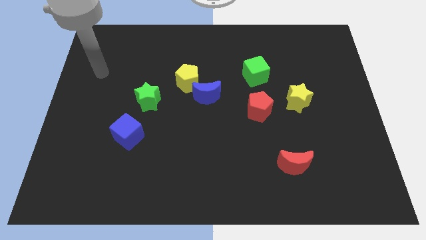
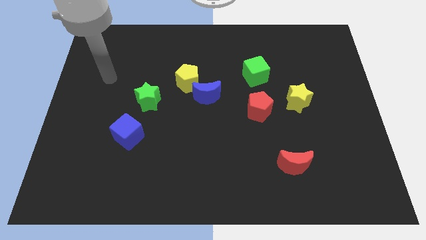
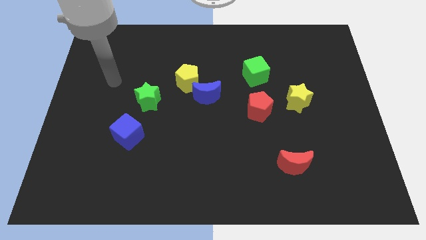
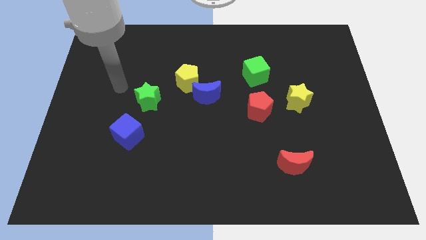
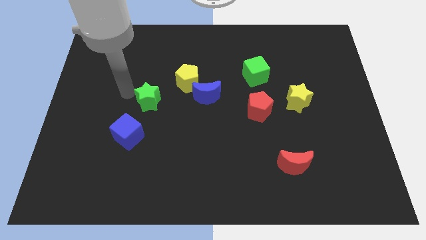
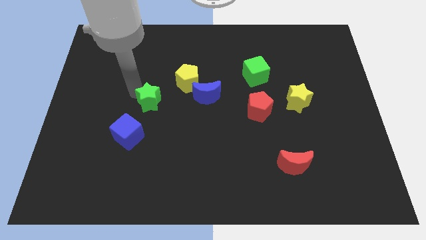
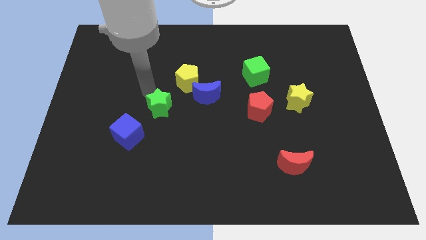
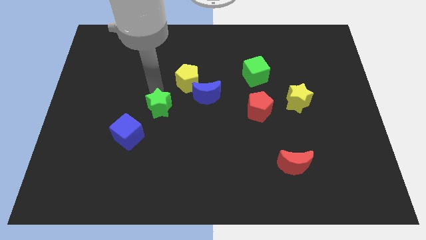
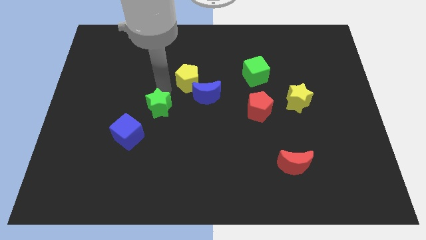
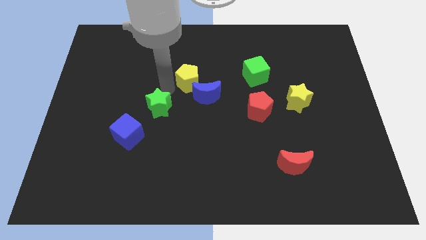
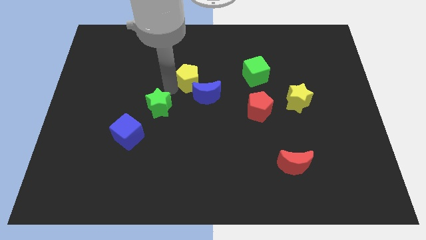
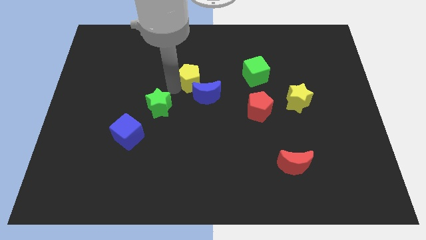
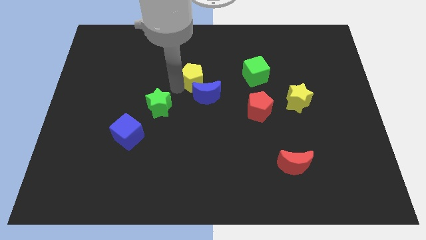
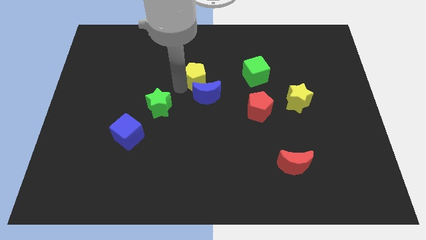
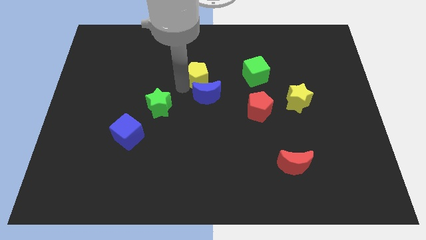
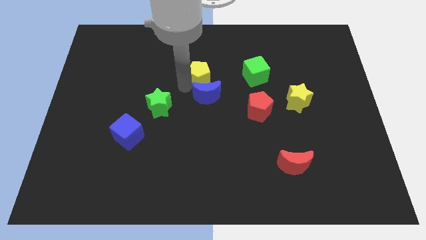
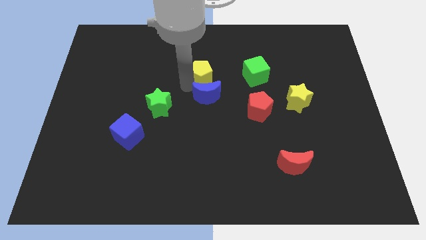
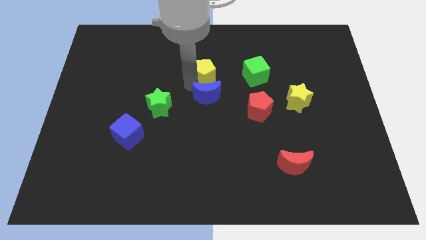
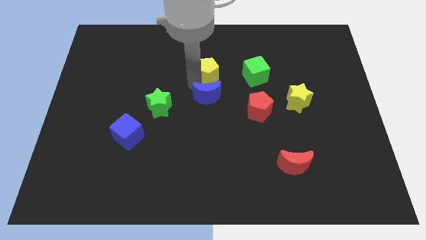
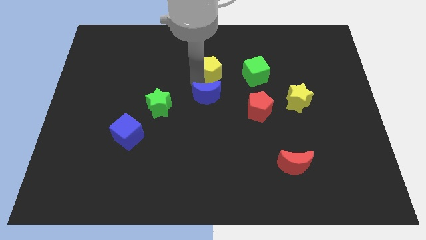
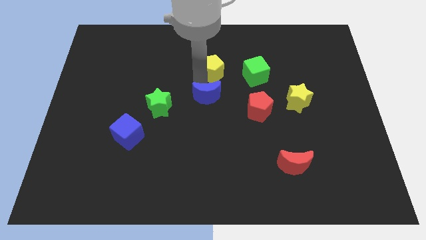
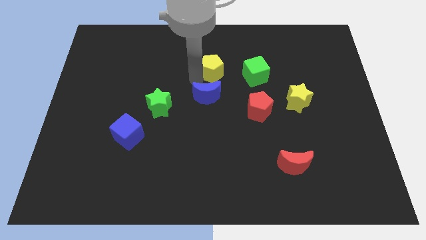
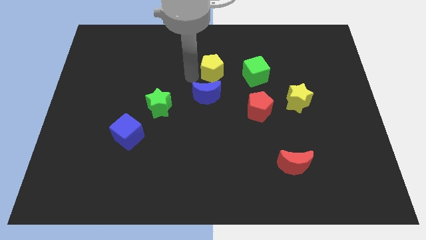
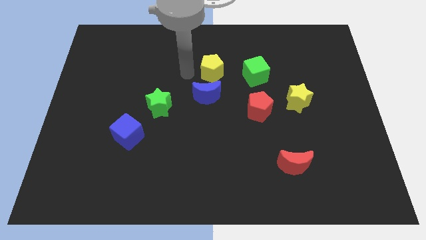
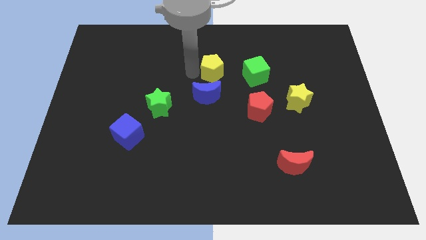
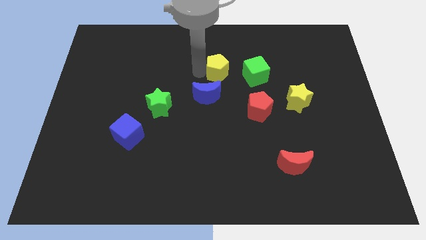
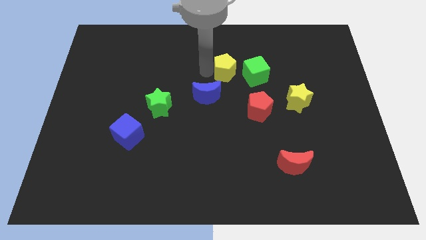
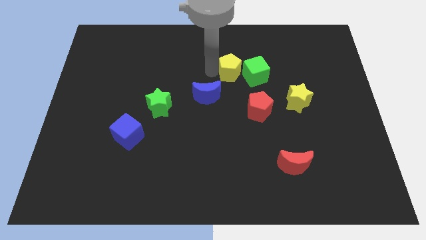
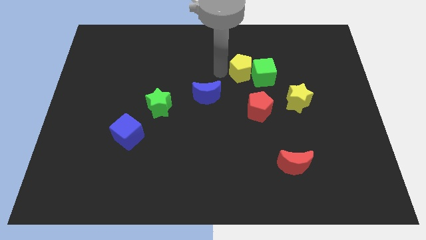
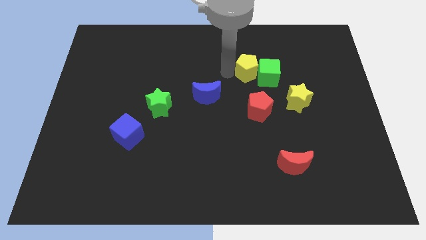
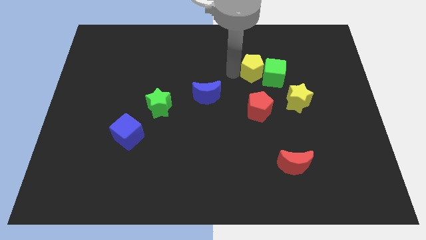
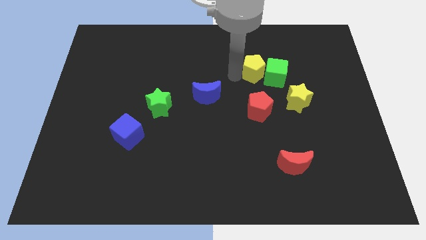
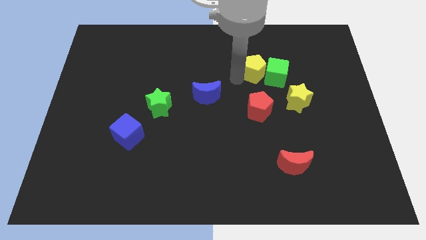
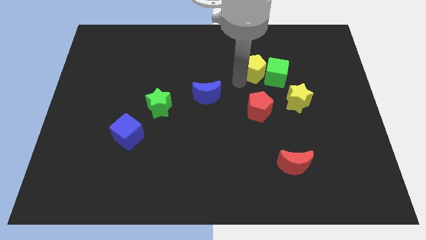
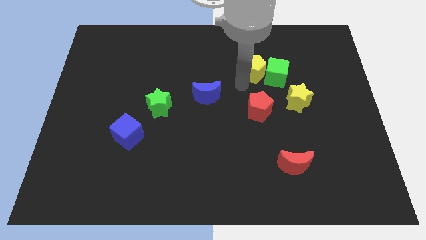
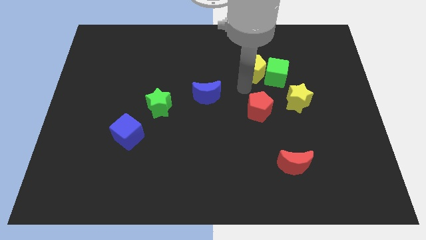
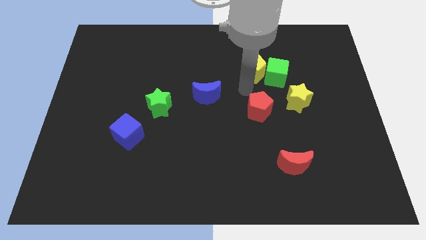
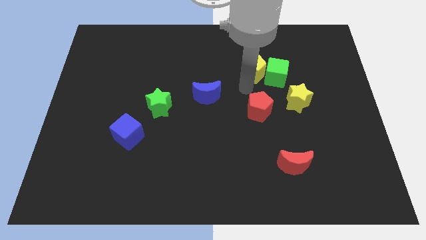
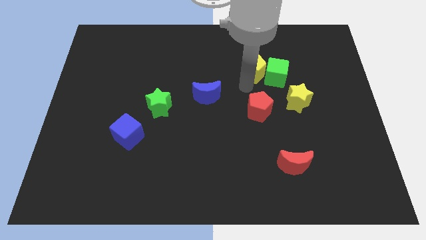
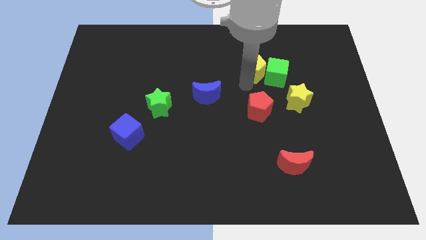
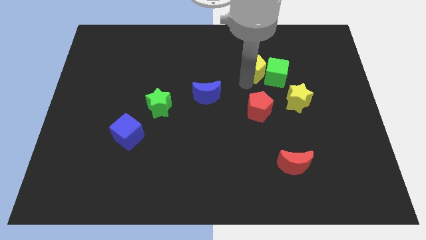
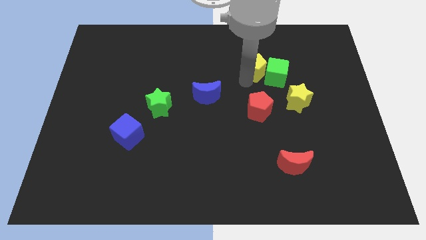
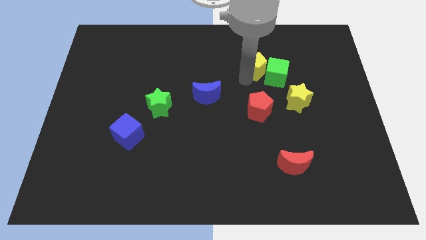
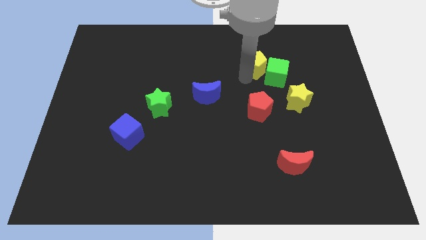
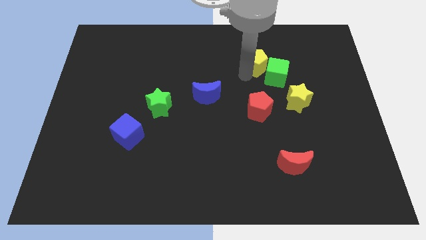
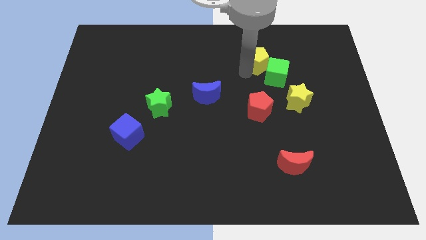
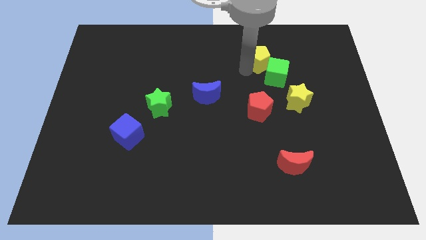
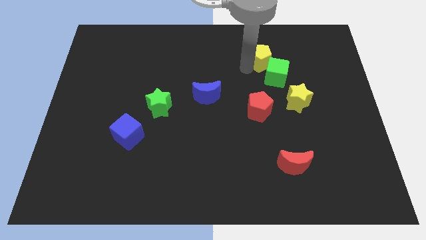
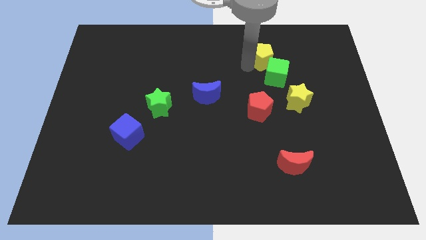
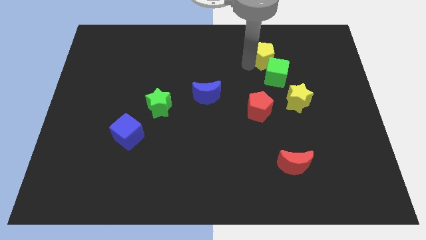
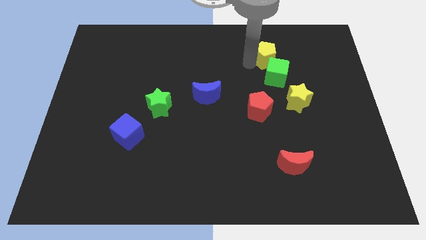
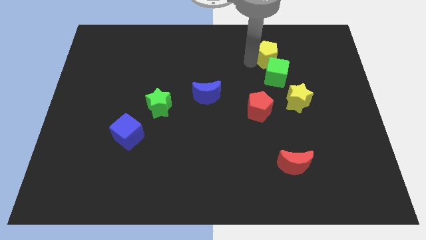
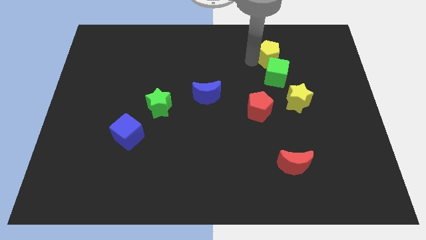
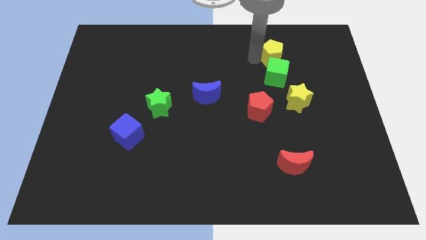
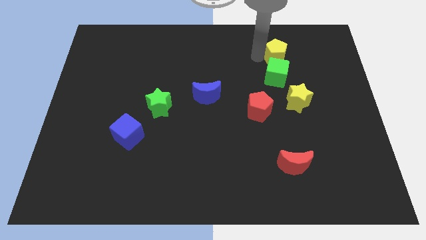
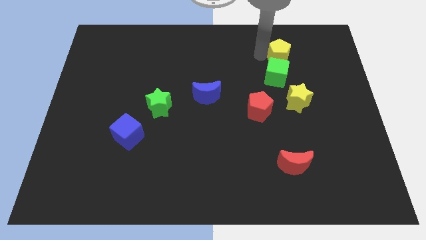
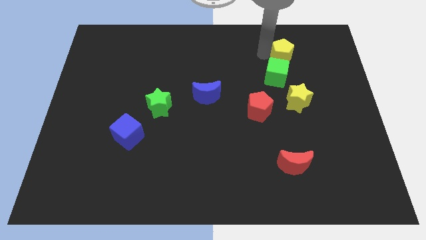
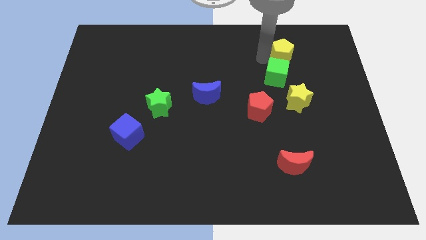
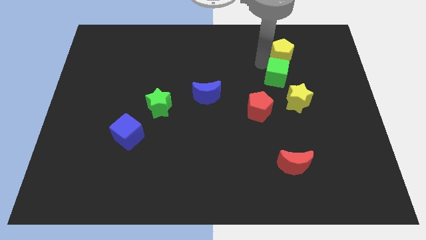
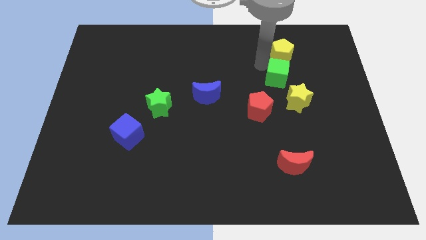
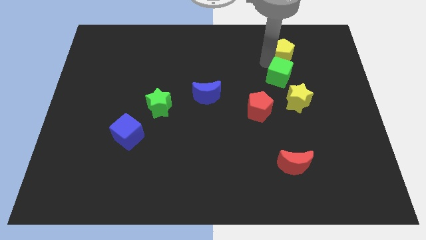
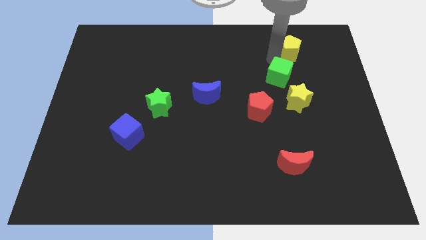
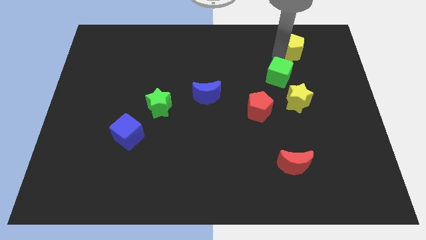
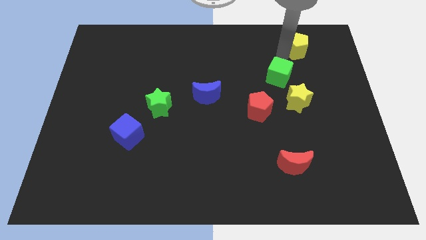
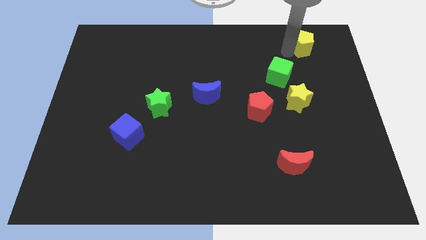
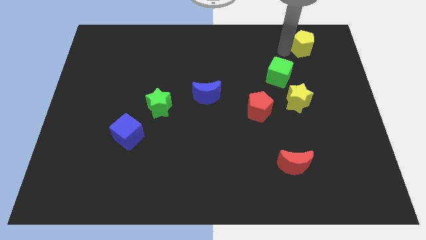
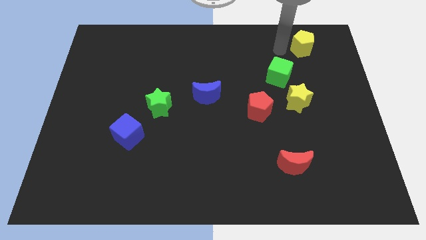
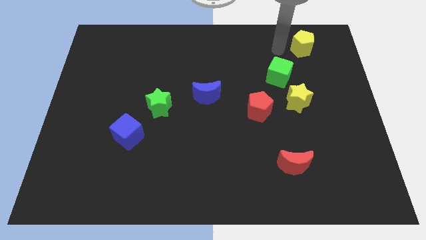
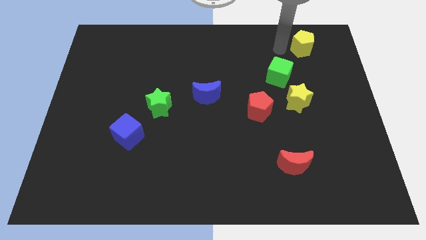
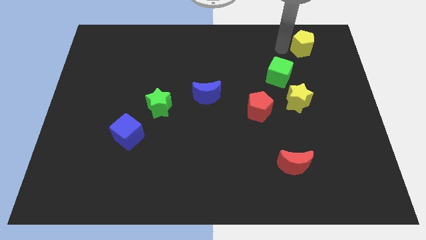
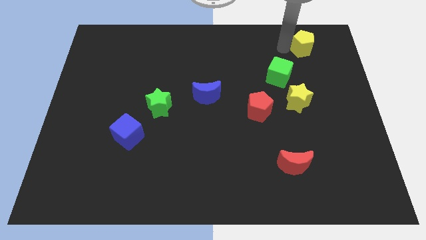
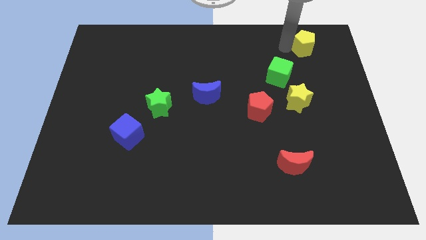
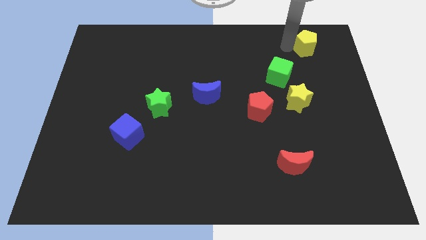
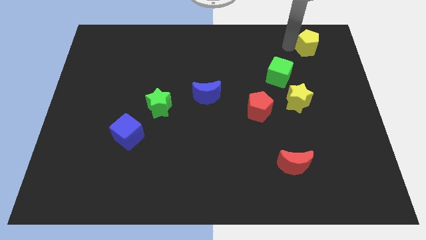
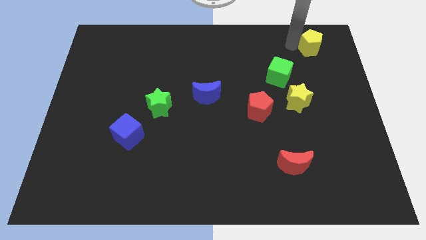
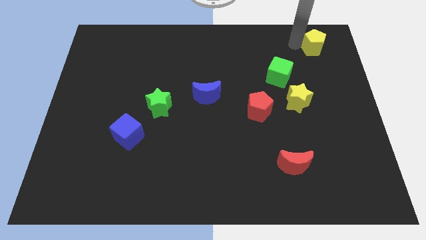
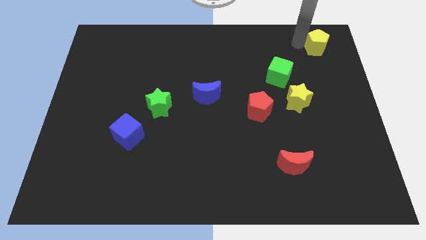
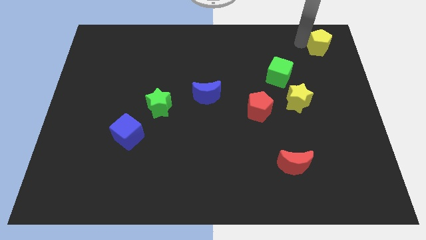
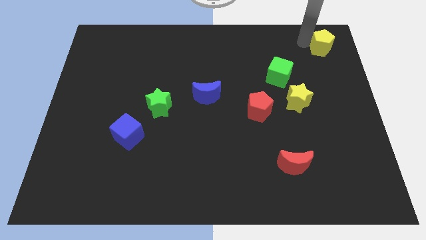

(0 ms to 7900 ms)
move the yellow pentagon to the top right corner
